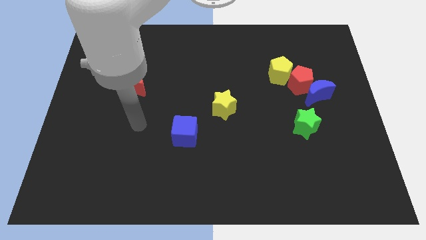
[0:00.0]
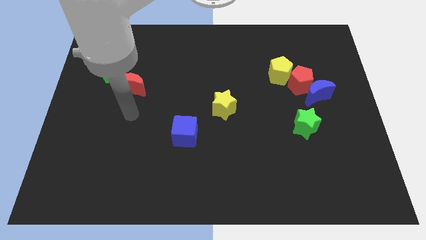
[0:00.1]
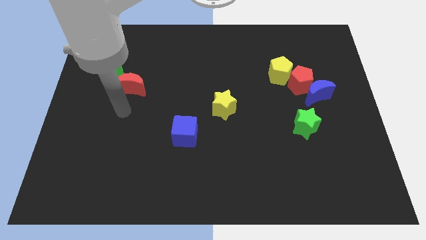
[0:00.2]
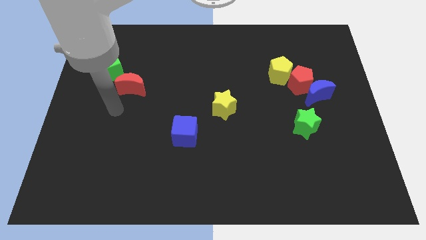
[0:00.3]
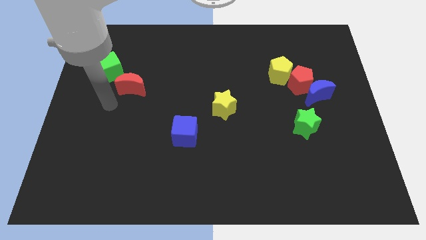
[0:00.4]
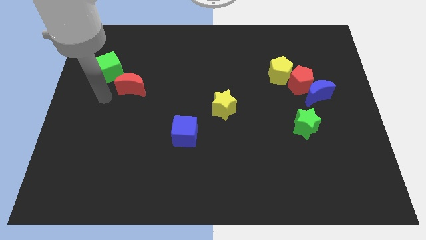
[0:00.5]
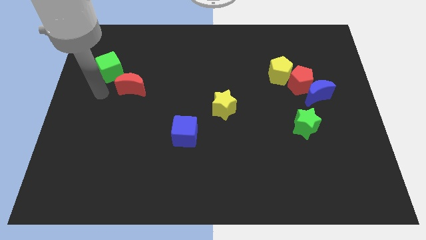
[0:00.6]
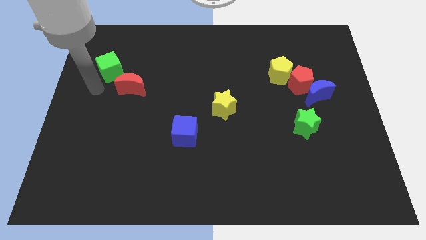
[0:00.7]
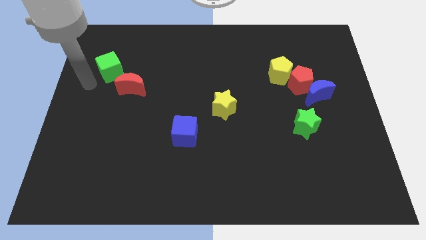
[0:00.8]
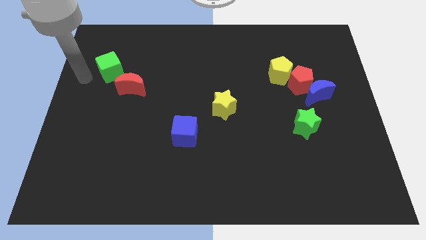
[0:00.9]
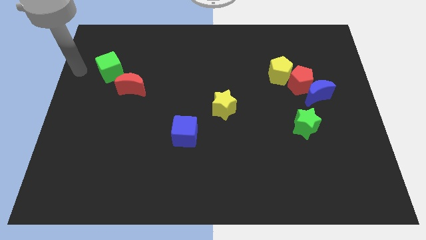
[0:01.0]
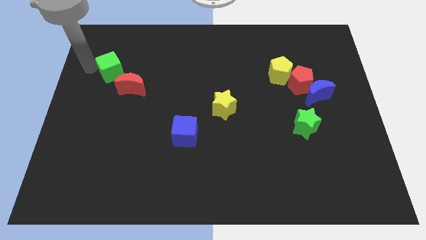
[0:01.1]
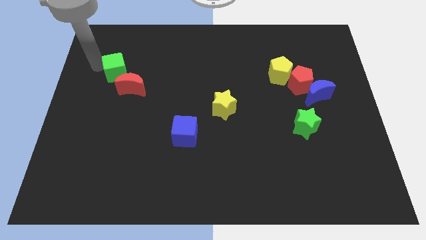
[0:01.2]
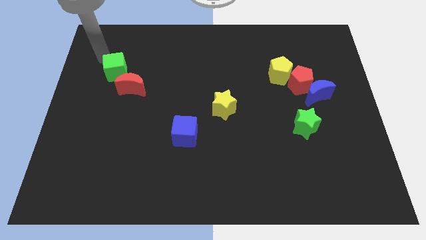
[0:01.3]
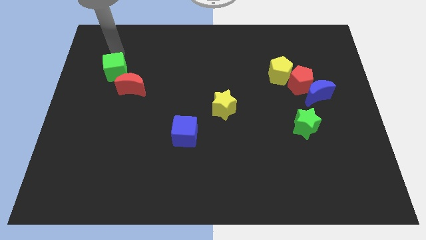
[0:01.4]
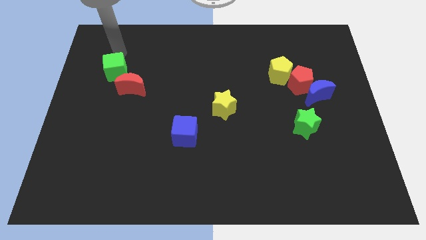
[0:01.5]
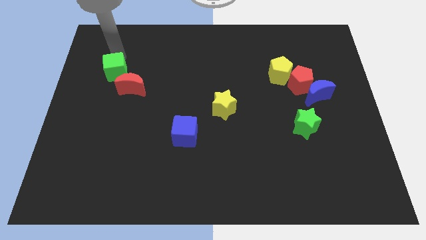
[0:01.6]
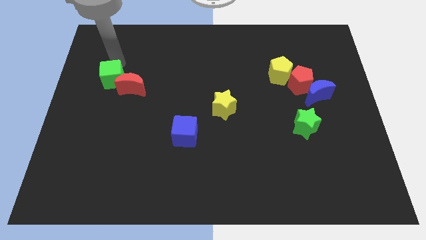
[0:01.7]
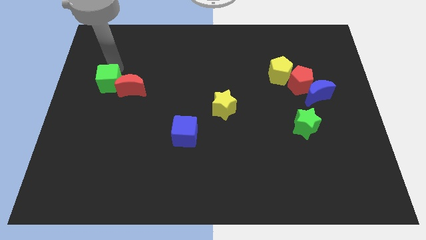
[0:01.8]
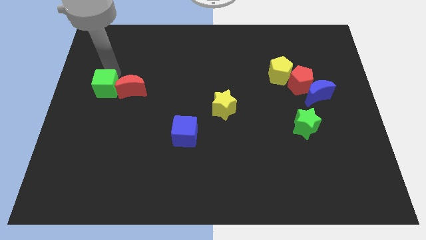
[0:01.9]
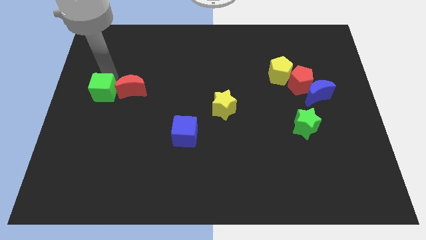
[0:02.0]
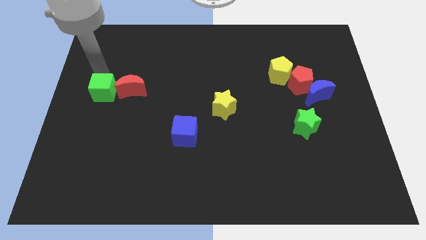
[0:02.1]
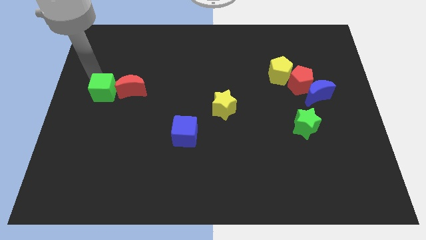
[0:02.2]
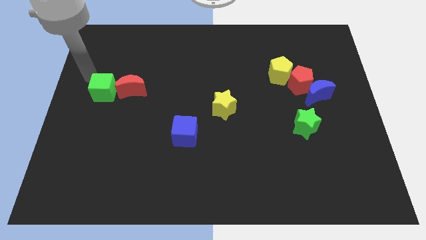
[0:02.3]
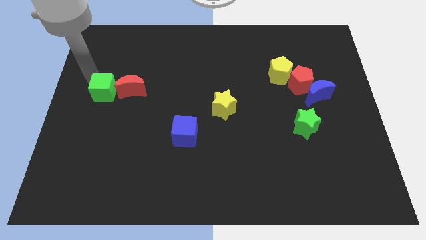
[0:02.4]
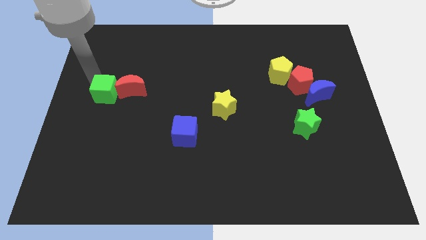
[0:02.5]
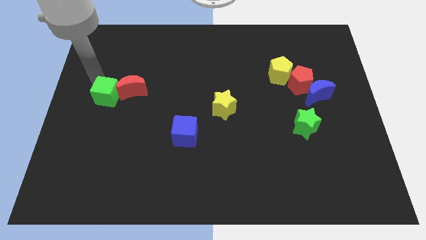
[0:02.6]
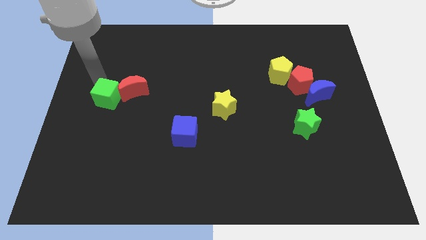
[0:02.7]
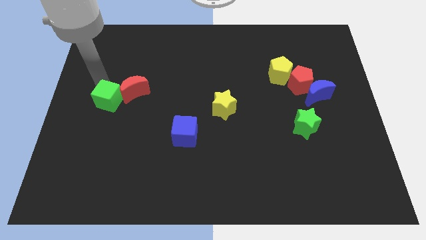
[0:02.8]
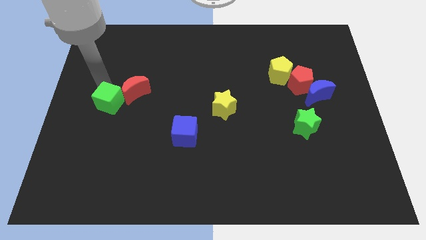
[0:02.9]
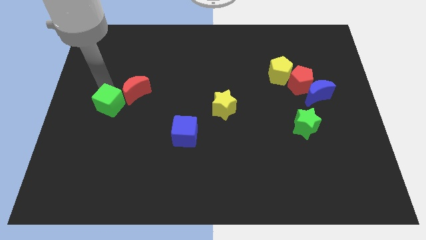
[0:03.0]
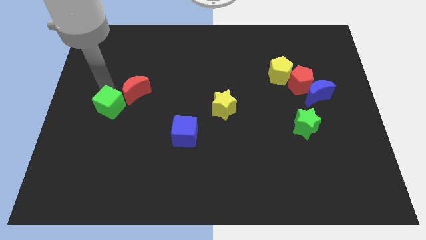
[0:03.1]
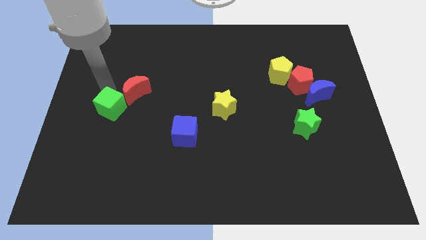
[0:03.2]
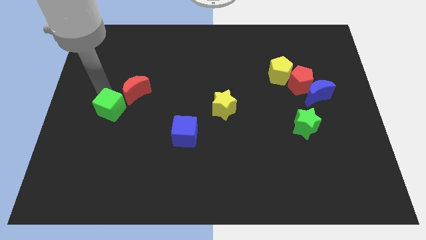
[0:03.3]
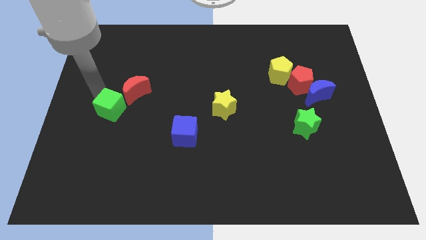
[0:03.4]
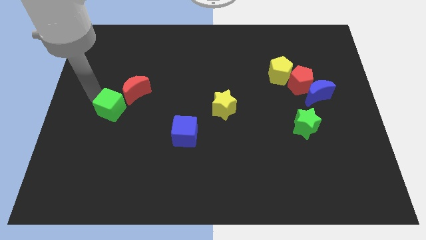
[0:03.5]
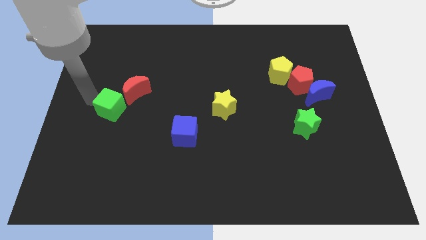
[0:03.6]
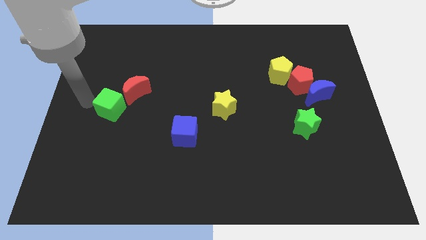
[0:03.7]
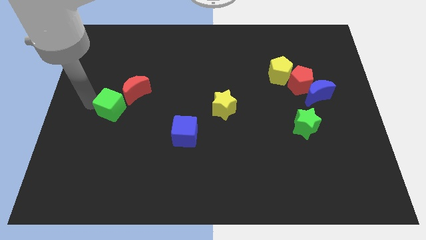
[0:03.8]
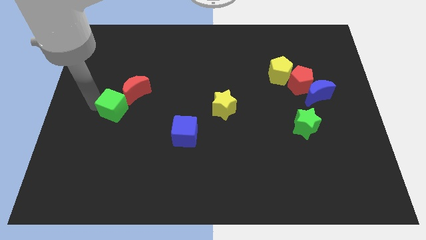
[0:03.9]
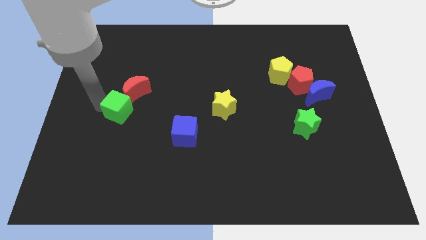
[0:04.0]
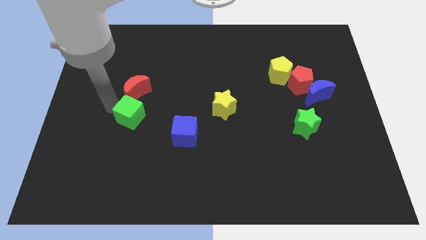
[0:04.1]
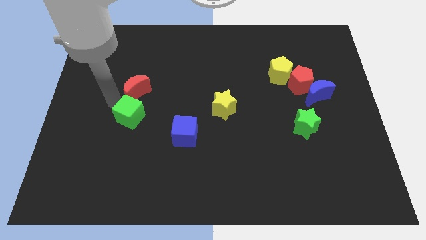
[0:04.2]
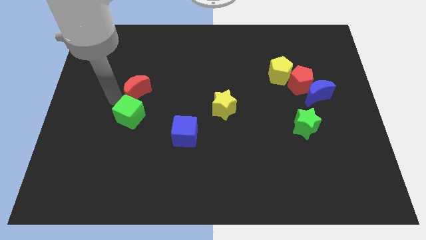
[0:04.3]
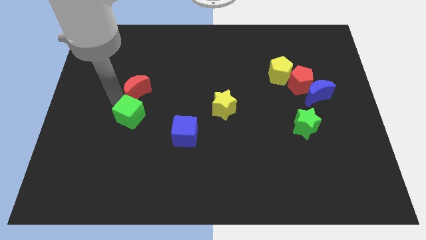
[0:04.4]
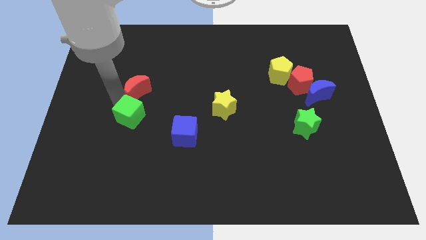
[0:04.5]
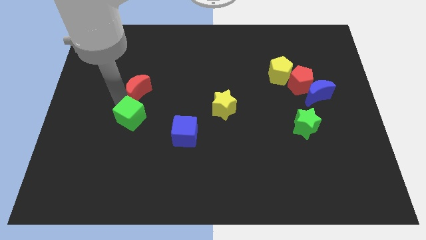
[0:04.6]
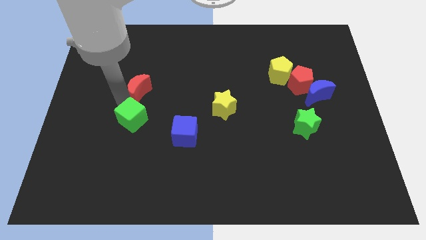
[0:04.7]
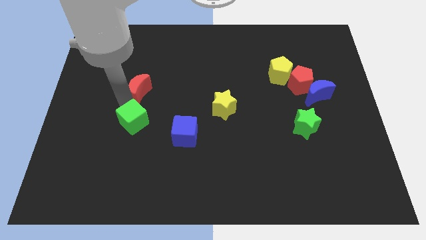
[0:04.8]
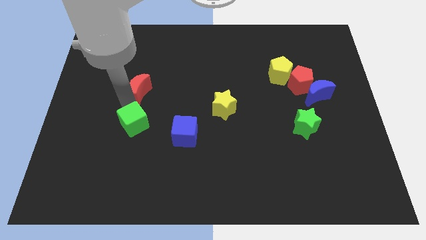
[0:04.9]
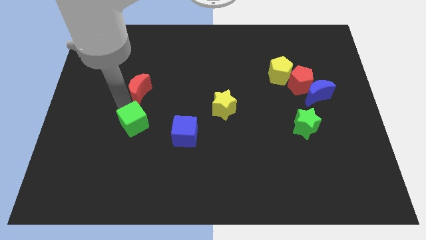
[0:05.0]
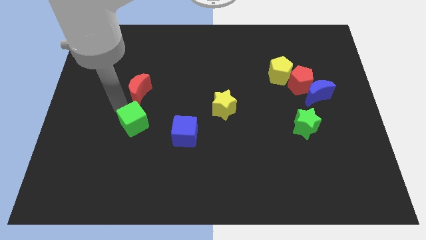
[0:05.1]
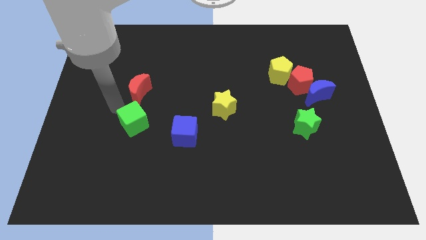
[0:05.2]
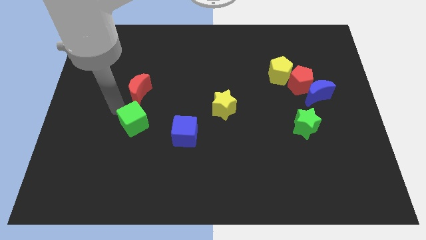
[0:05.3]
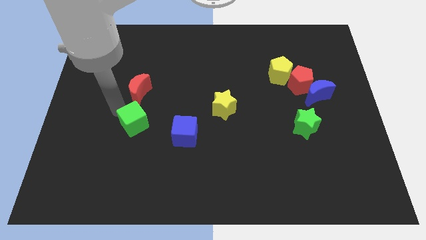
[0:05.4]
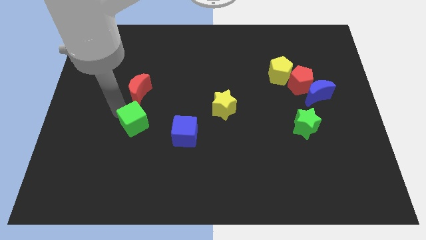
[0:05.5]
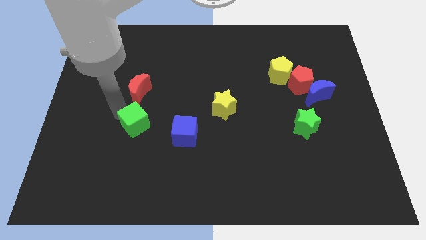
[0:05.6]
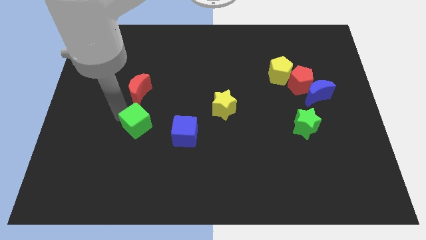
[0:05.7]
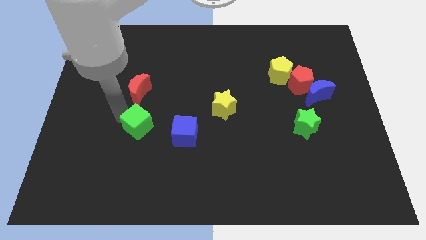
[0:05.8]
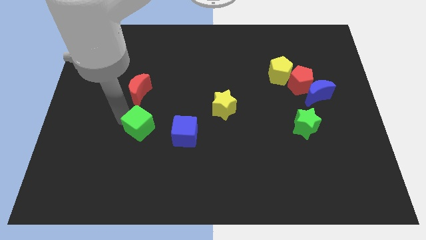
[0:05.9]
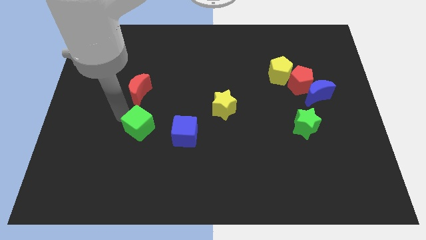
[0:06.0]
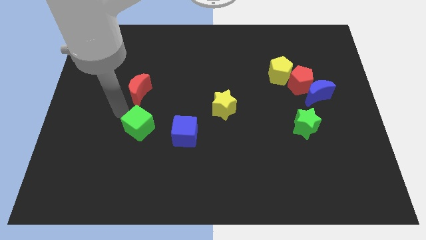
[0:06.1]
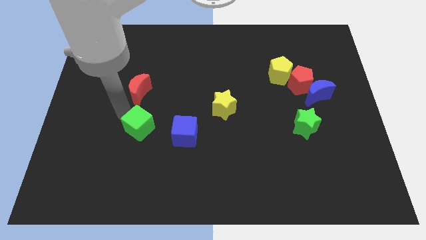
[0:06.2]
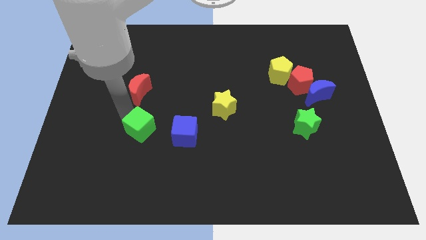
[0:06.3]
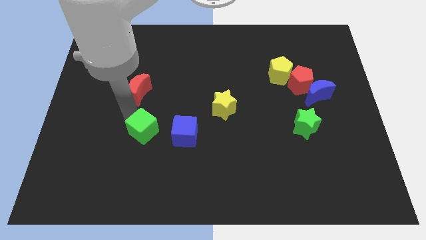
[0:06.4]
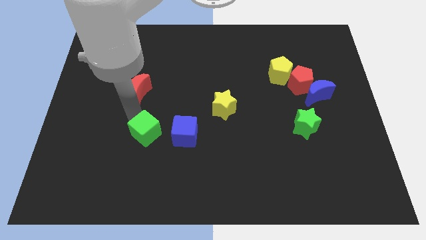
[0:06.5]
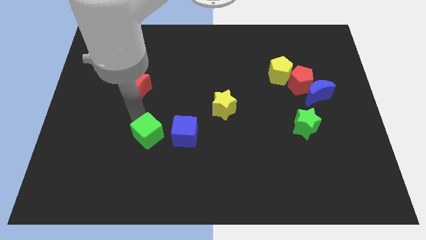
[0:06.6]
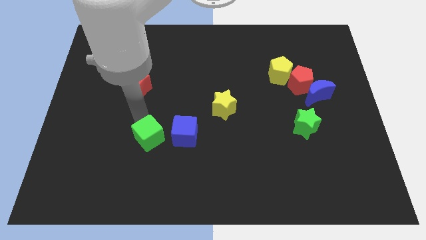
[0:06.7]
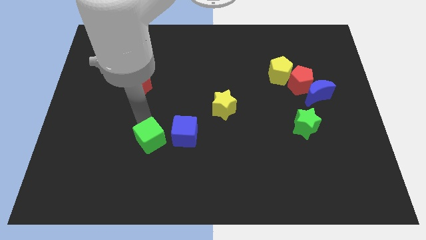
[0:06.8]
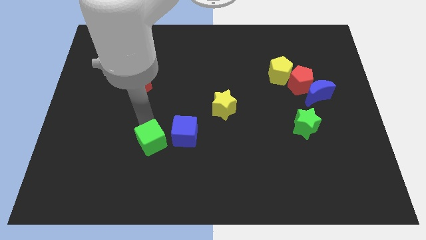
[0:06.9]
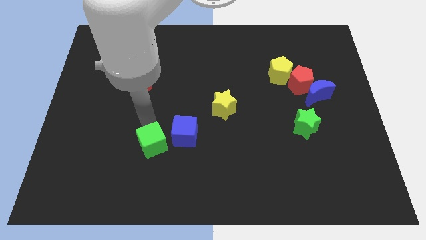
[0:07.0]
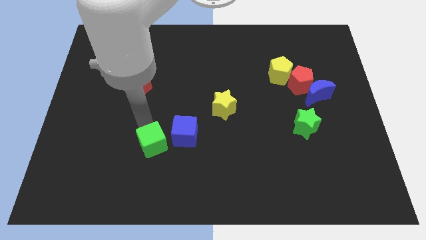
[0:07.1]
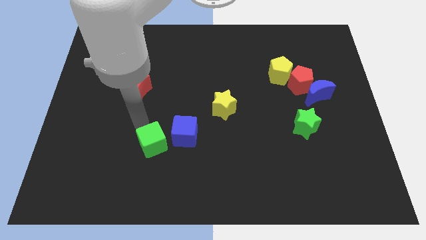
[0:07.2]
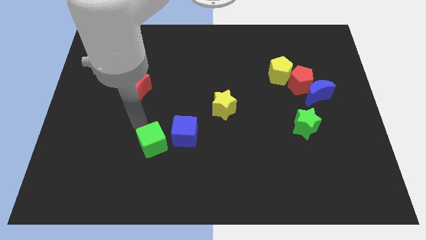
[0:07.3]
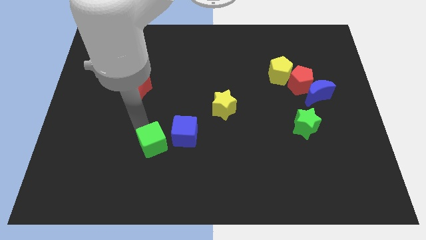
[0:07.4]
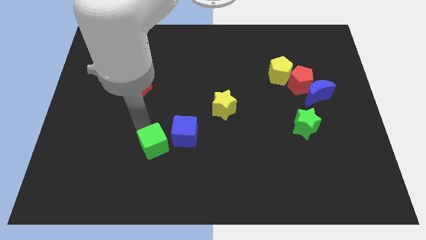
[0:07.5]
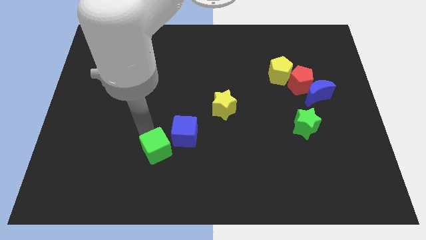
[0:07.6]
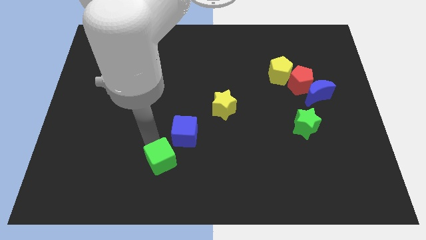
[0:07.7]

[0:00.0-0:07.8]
move the green cube to the bottom side of the blue cube

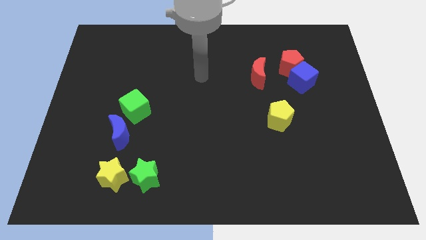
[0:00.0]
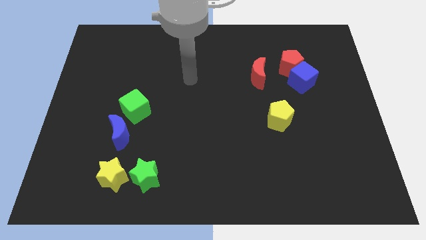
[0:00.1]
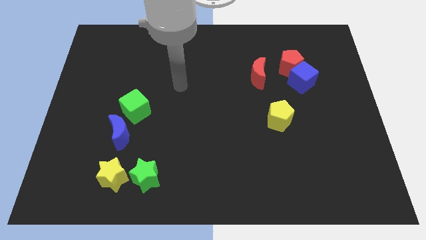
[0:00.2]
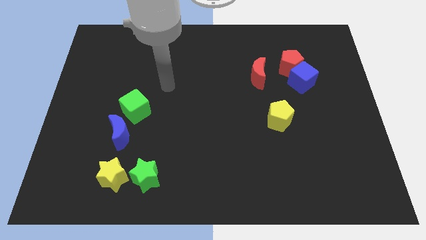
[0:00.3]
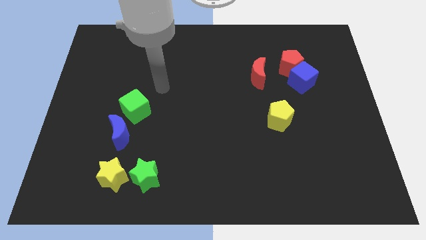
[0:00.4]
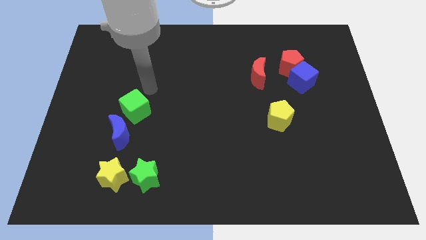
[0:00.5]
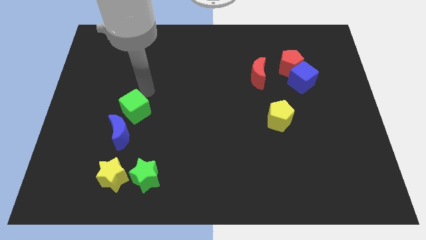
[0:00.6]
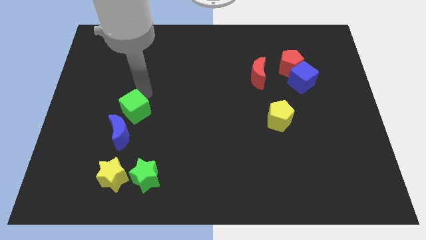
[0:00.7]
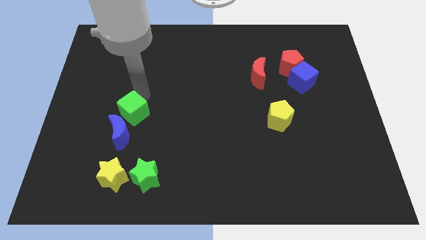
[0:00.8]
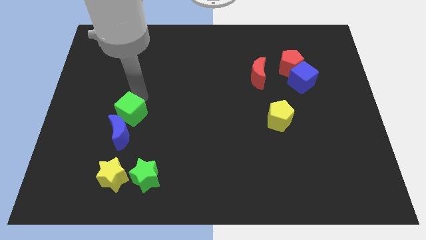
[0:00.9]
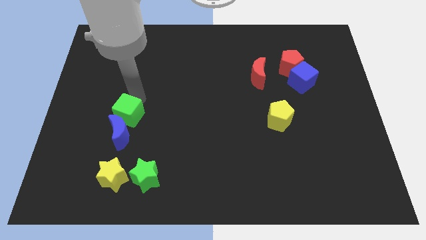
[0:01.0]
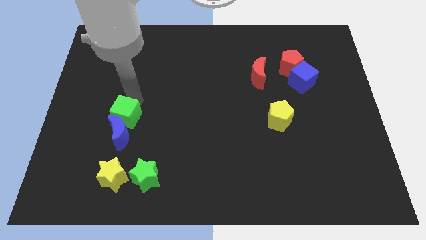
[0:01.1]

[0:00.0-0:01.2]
push the green cube to the top of the yellow star
